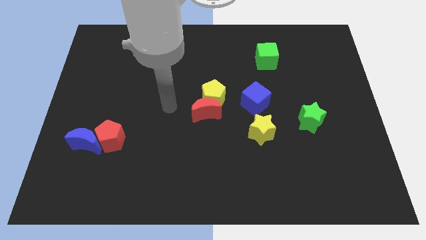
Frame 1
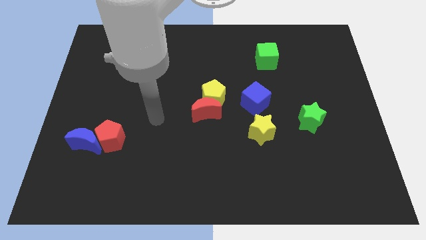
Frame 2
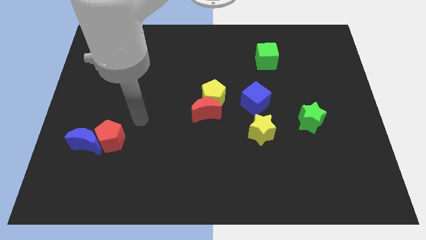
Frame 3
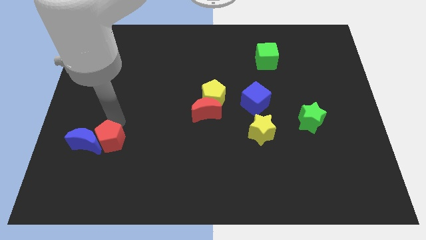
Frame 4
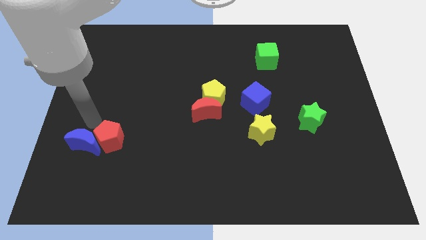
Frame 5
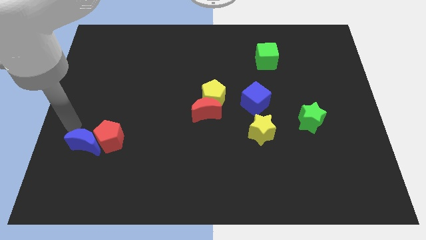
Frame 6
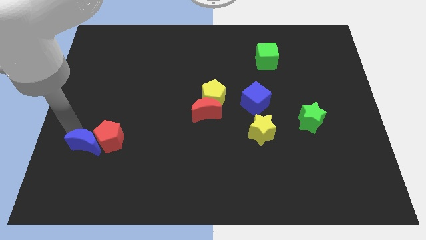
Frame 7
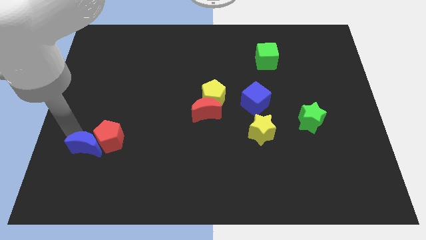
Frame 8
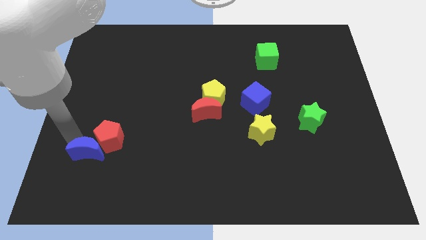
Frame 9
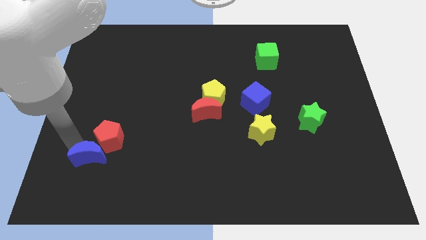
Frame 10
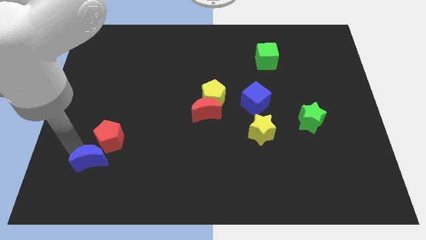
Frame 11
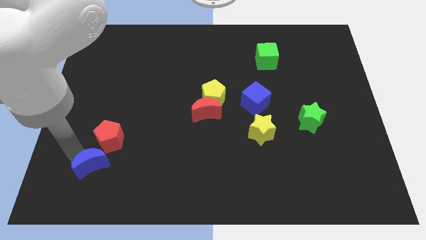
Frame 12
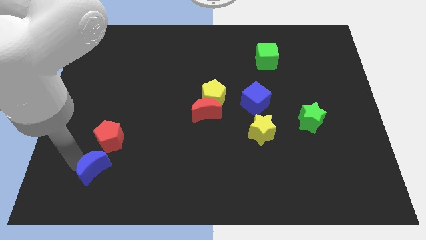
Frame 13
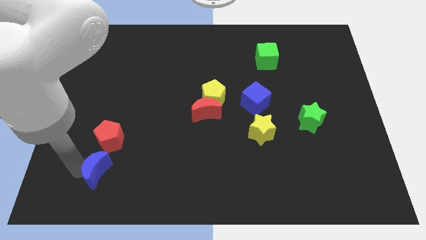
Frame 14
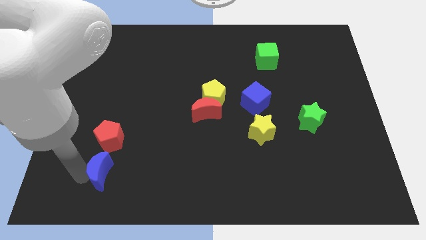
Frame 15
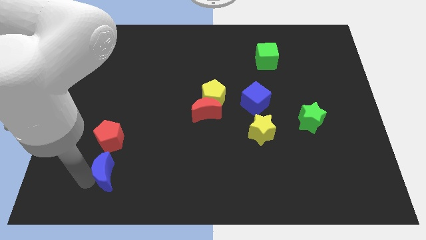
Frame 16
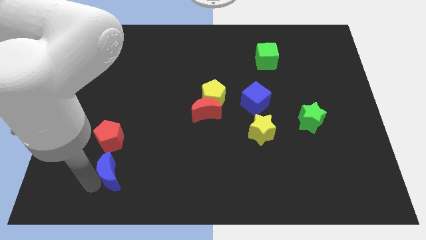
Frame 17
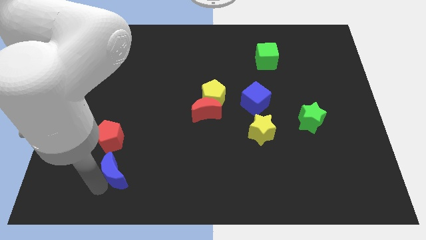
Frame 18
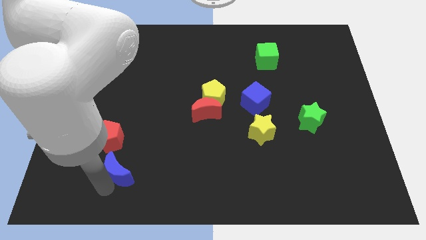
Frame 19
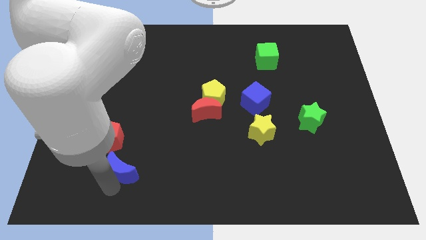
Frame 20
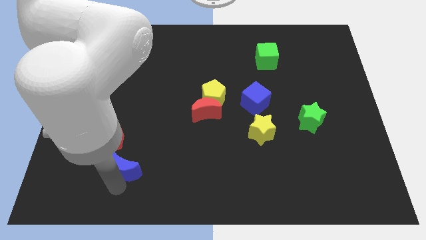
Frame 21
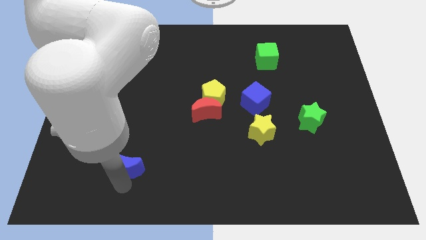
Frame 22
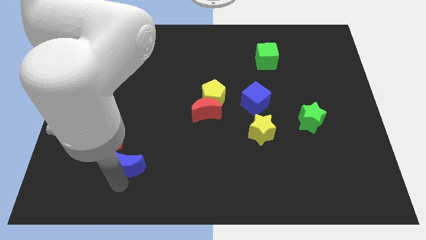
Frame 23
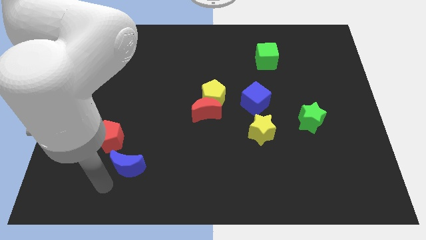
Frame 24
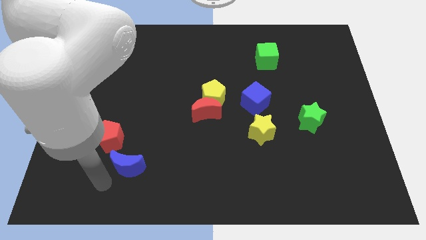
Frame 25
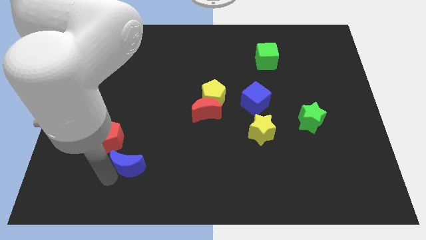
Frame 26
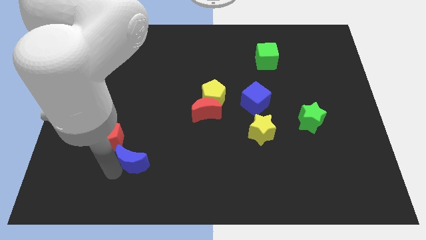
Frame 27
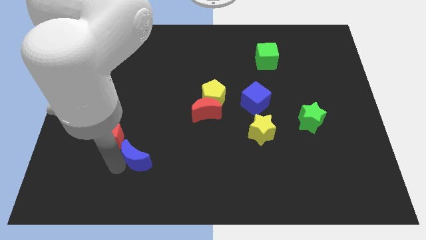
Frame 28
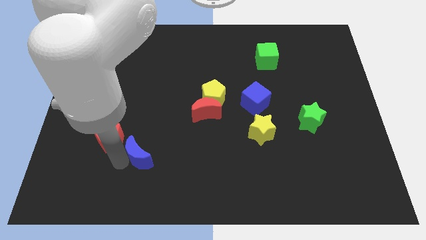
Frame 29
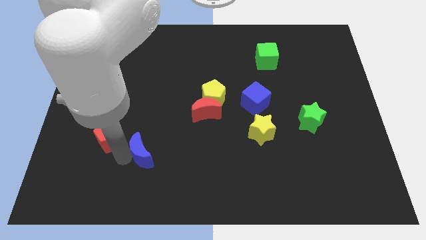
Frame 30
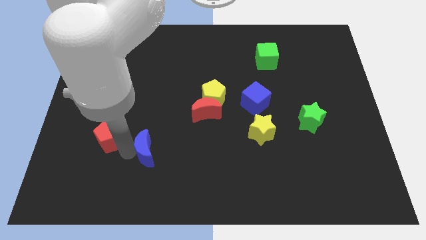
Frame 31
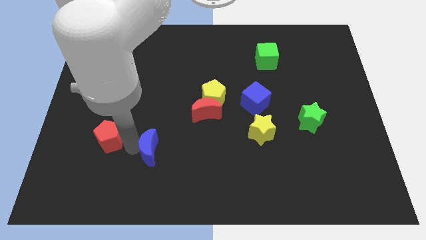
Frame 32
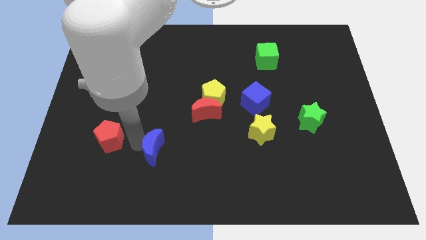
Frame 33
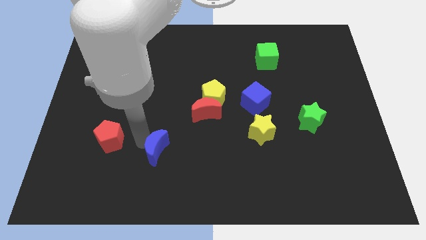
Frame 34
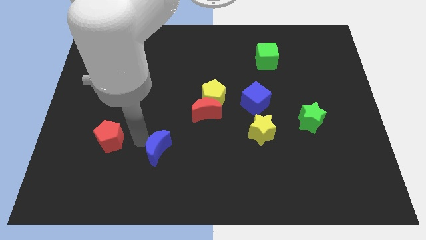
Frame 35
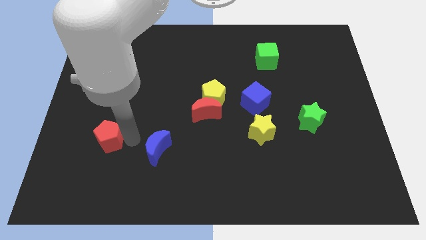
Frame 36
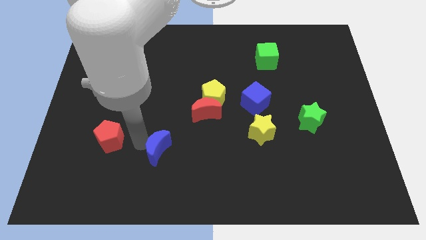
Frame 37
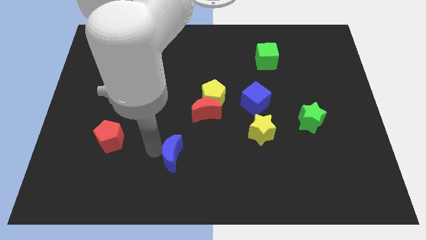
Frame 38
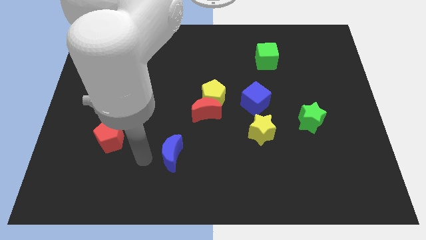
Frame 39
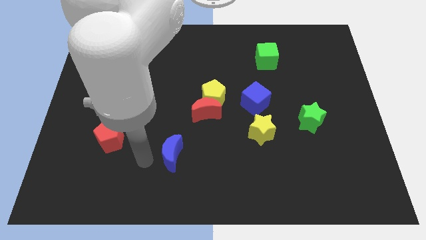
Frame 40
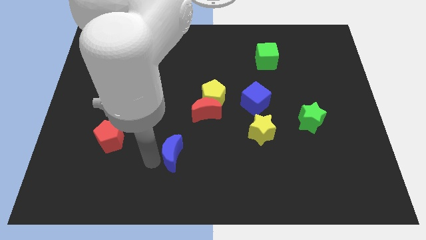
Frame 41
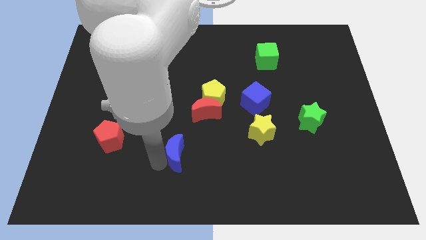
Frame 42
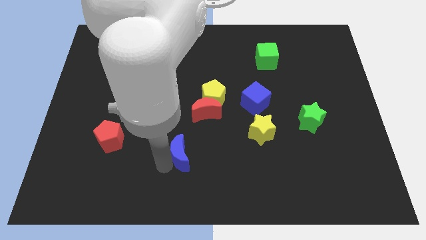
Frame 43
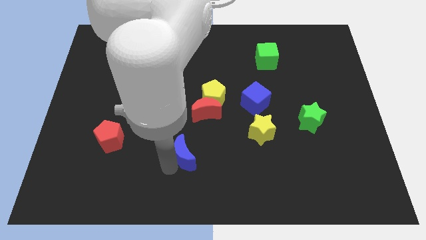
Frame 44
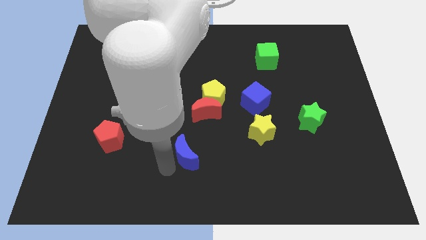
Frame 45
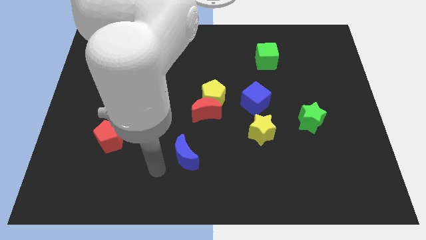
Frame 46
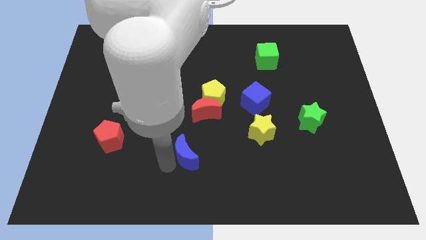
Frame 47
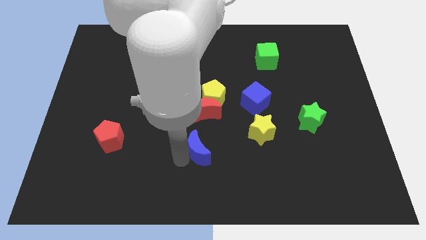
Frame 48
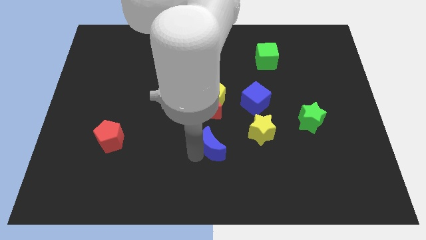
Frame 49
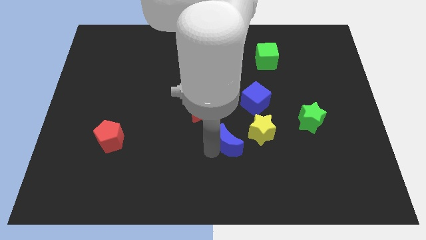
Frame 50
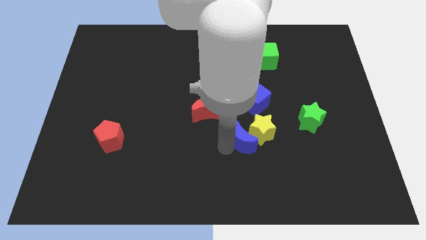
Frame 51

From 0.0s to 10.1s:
slide the blue moon to the yellow star

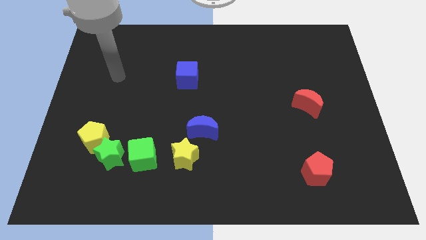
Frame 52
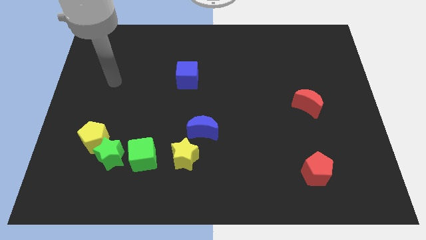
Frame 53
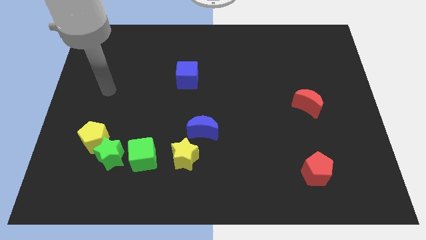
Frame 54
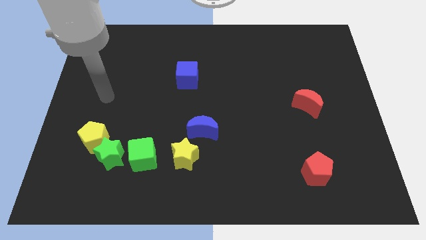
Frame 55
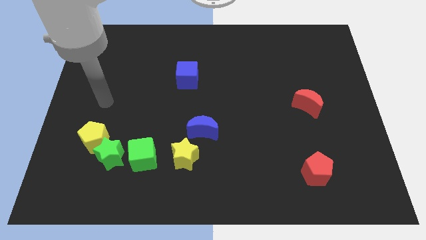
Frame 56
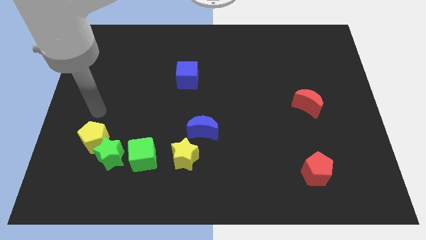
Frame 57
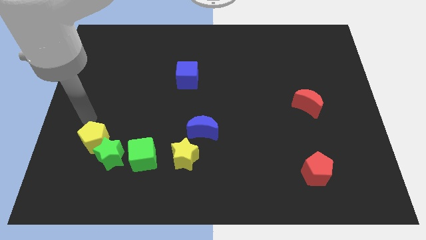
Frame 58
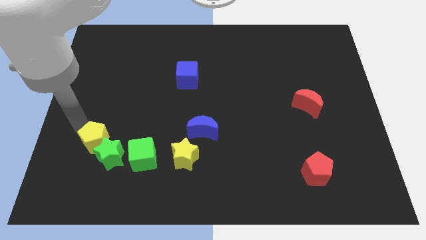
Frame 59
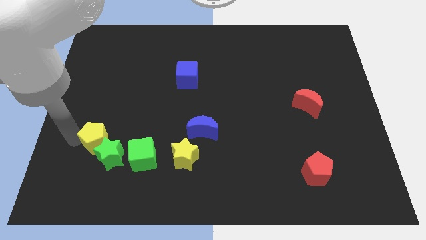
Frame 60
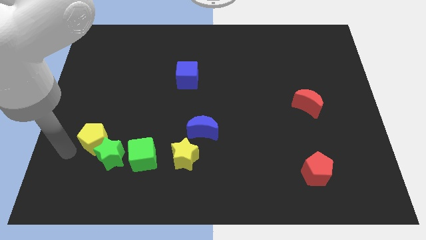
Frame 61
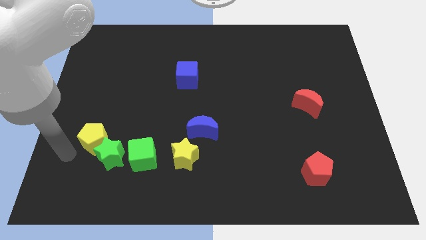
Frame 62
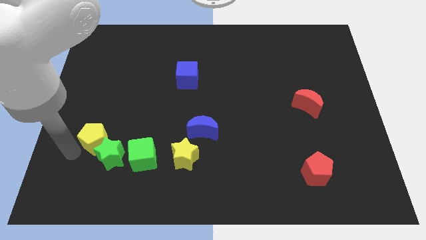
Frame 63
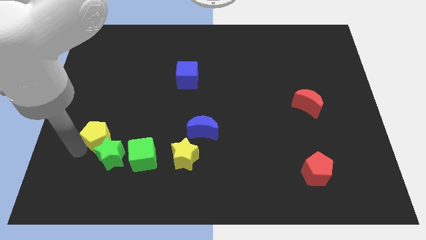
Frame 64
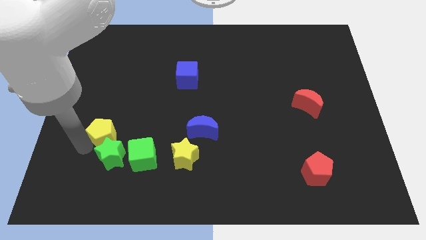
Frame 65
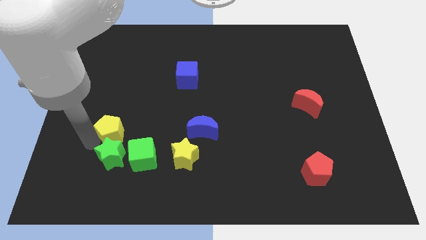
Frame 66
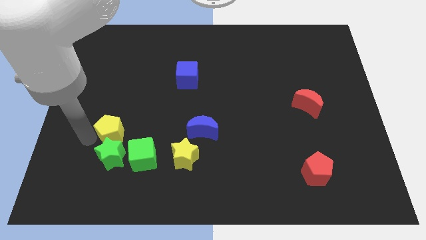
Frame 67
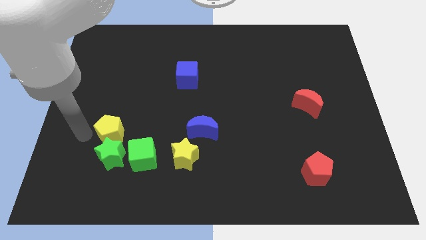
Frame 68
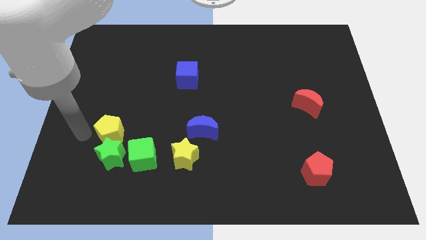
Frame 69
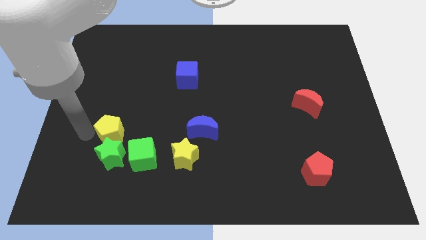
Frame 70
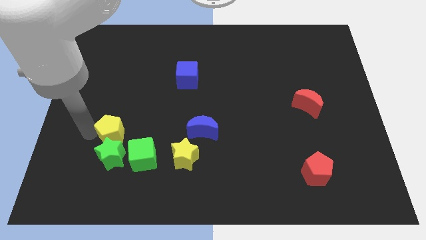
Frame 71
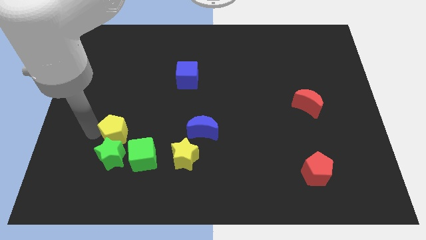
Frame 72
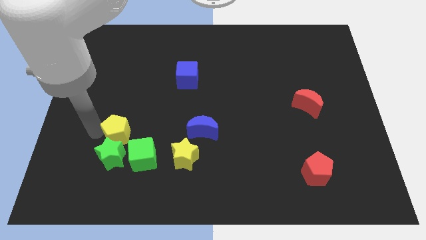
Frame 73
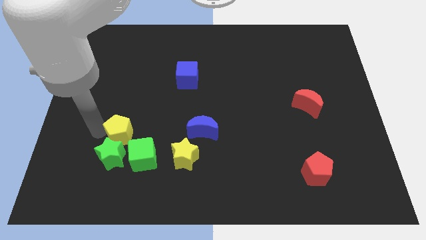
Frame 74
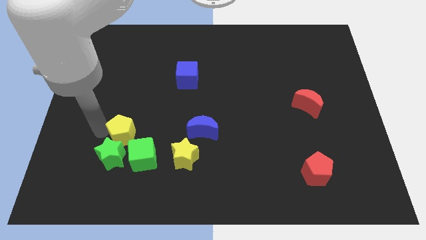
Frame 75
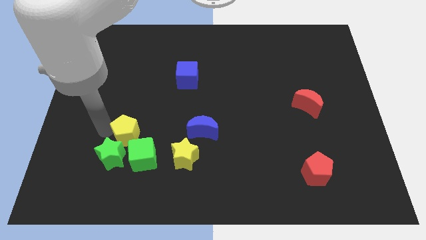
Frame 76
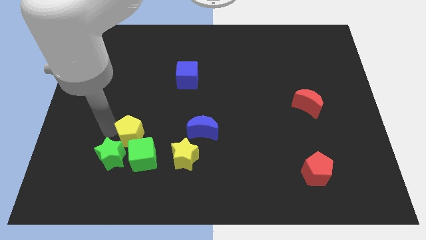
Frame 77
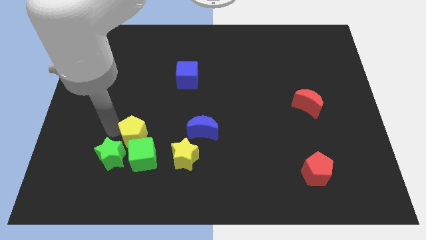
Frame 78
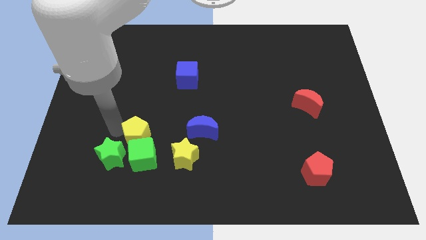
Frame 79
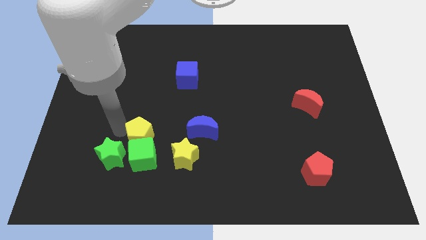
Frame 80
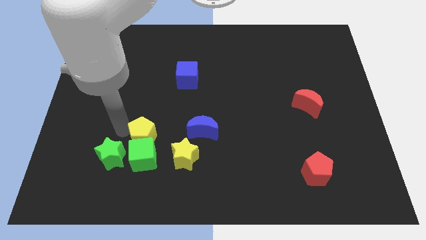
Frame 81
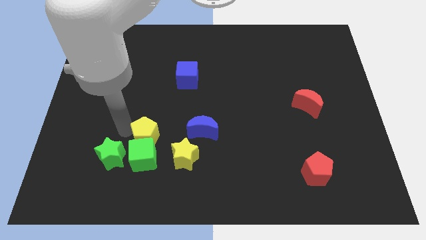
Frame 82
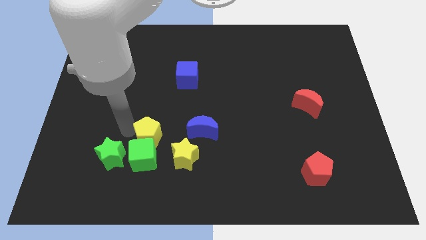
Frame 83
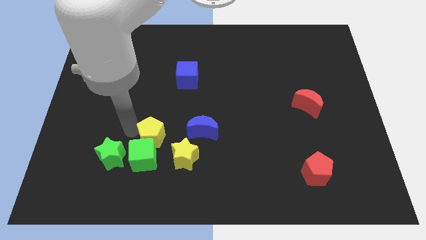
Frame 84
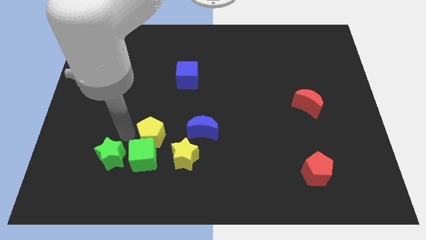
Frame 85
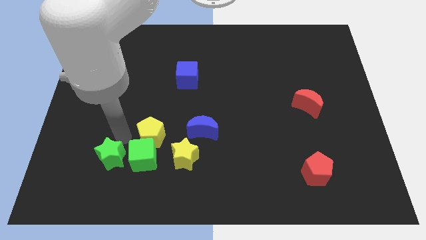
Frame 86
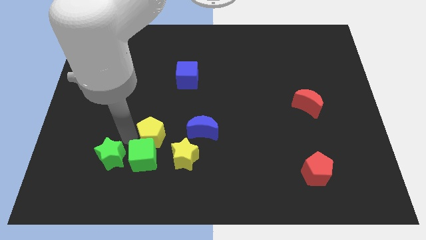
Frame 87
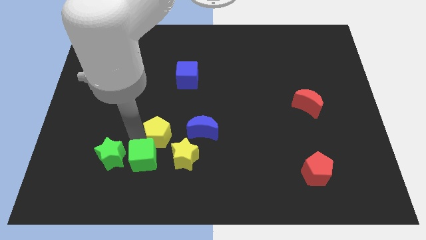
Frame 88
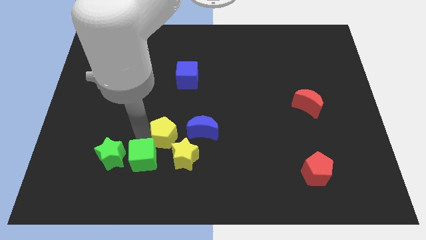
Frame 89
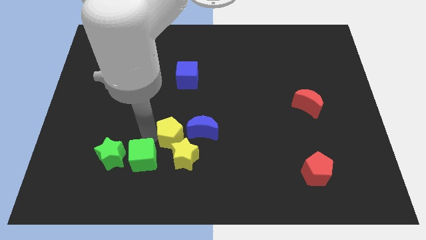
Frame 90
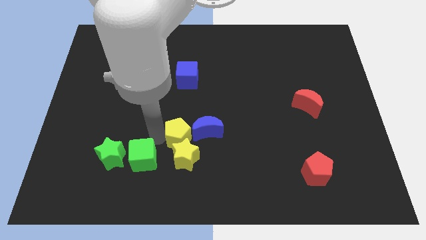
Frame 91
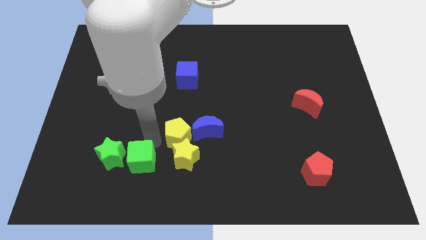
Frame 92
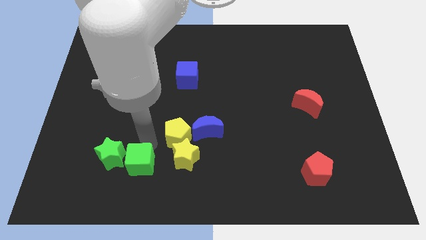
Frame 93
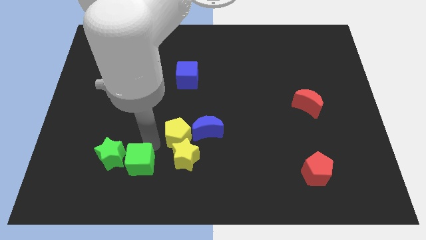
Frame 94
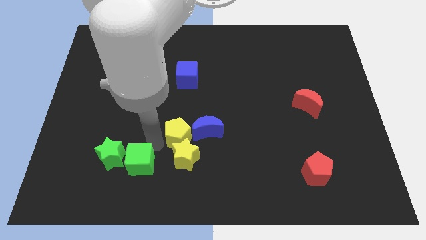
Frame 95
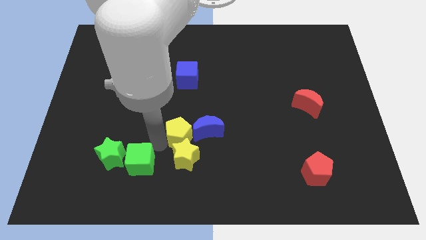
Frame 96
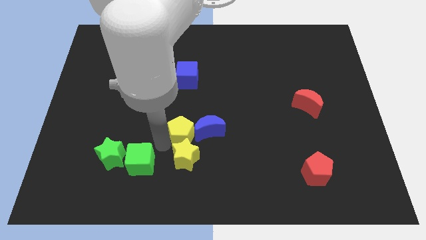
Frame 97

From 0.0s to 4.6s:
move the yellow pentagon to the blue moon
